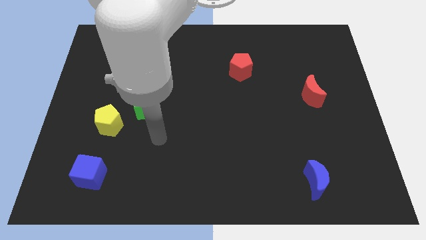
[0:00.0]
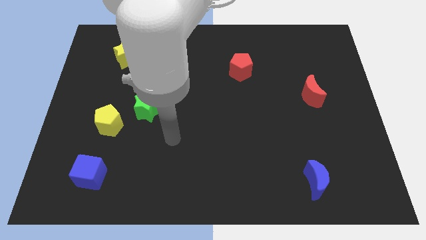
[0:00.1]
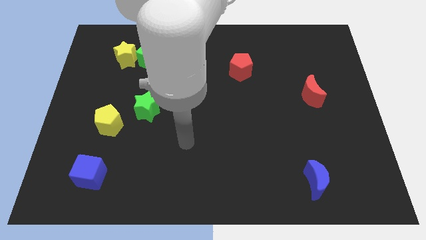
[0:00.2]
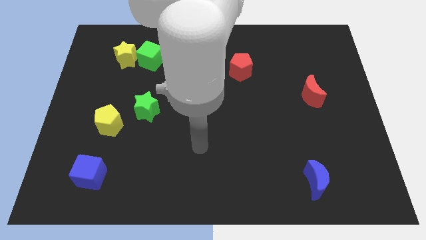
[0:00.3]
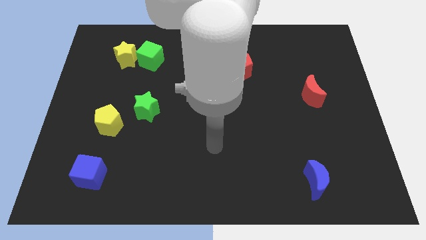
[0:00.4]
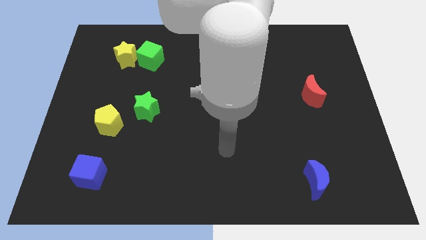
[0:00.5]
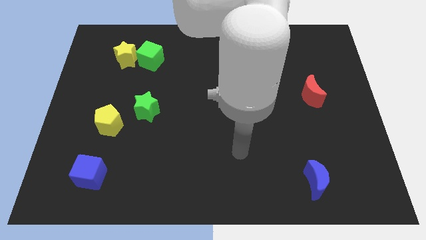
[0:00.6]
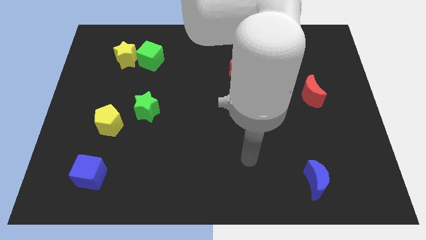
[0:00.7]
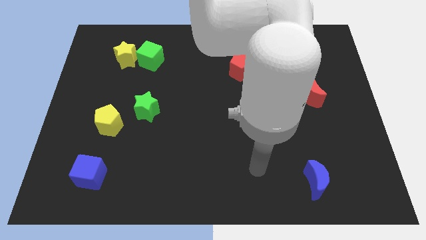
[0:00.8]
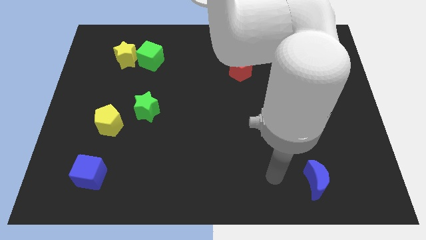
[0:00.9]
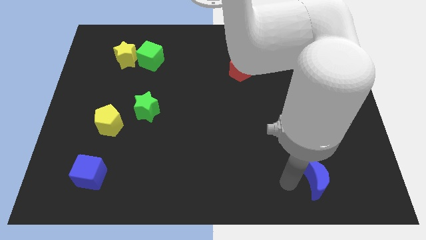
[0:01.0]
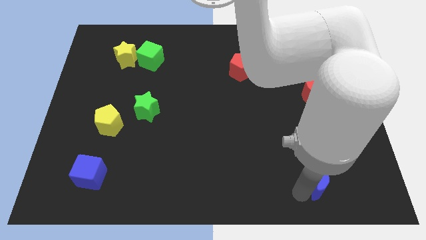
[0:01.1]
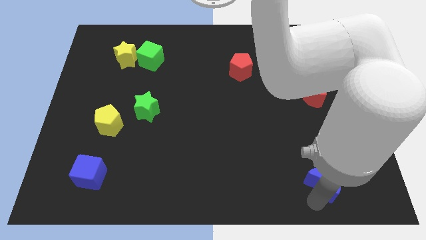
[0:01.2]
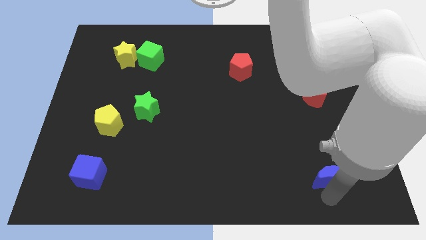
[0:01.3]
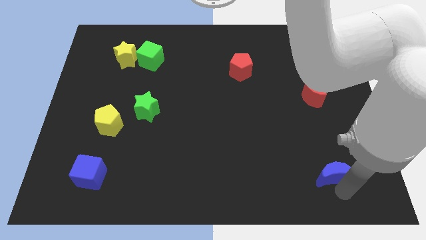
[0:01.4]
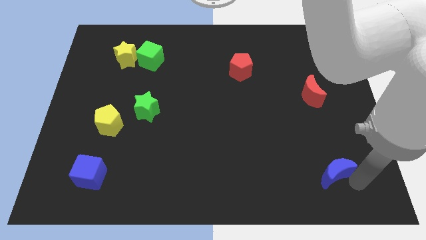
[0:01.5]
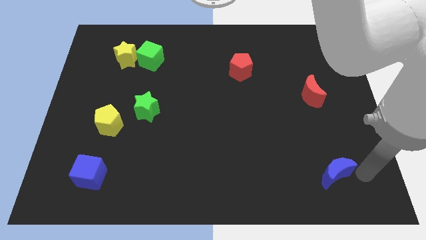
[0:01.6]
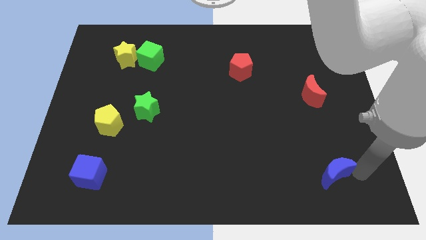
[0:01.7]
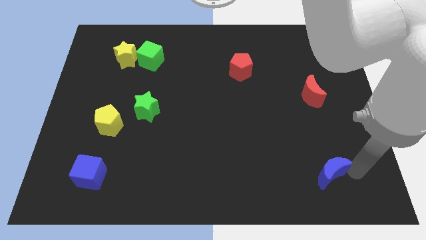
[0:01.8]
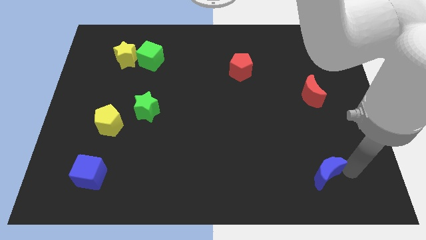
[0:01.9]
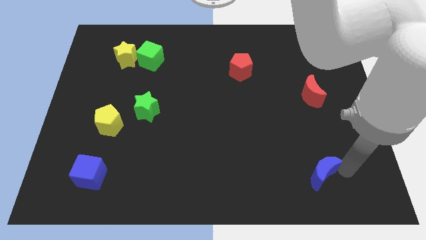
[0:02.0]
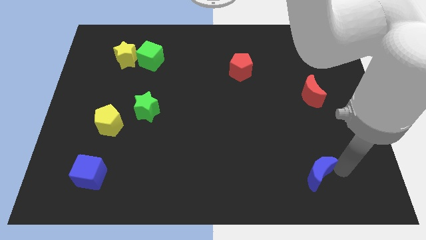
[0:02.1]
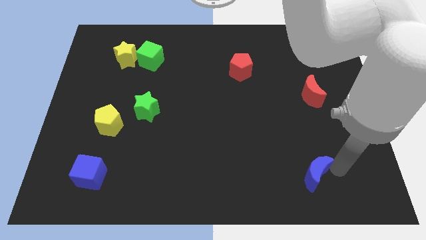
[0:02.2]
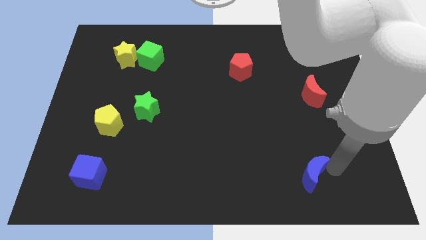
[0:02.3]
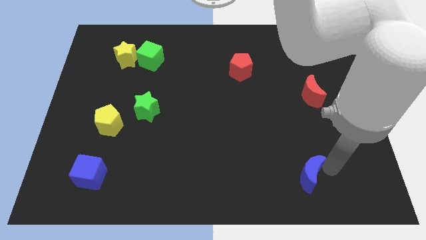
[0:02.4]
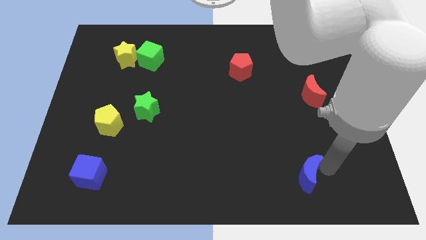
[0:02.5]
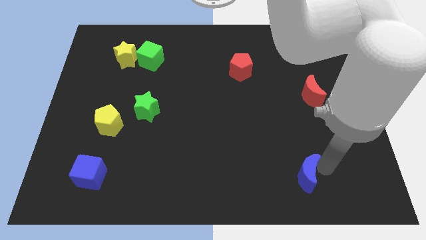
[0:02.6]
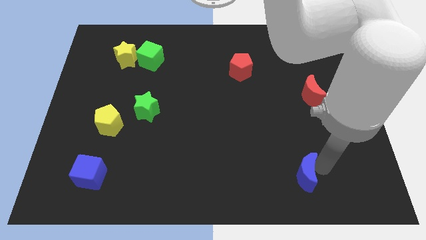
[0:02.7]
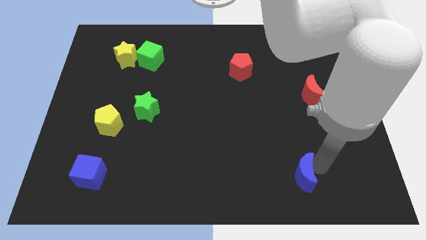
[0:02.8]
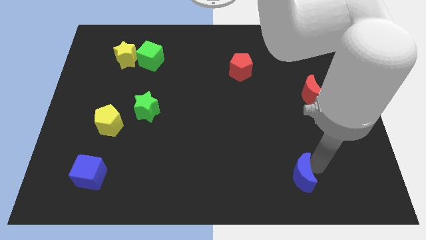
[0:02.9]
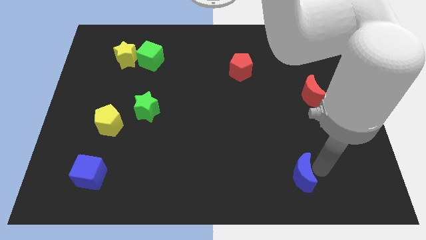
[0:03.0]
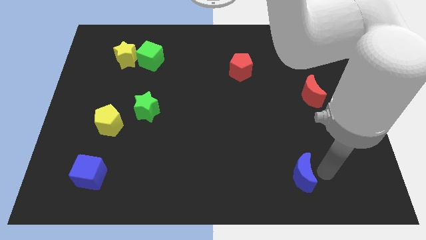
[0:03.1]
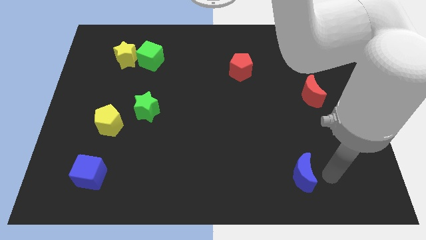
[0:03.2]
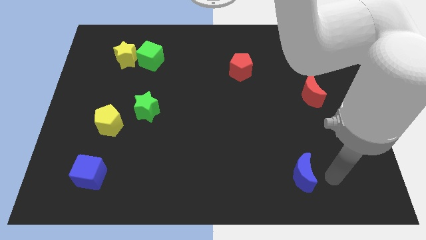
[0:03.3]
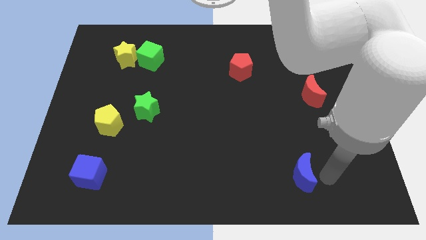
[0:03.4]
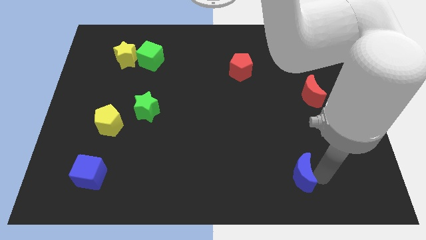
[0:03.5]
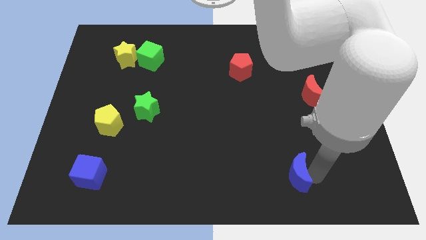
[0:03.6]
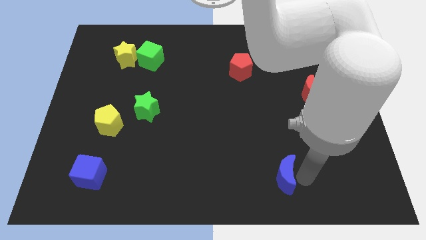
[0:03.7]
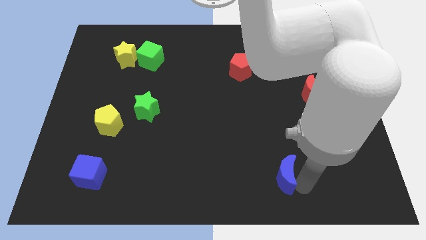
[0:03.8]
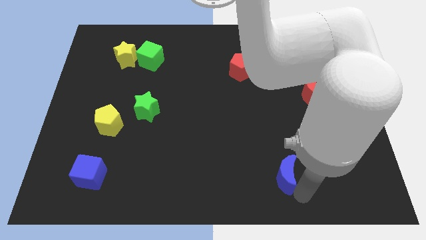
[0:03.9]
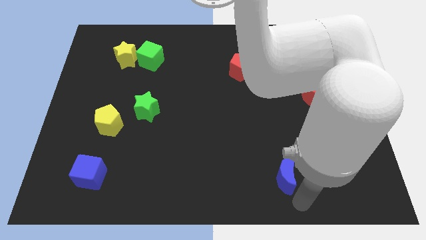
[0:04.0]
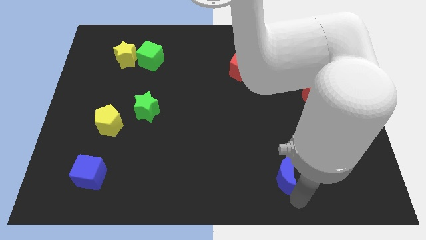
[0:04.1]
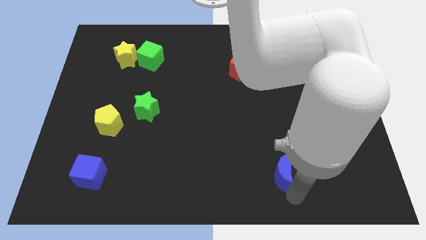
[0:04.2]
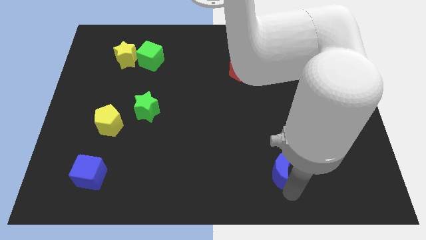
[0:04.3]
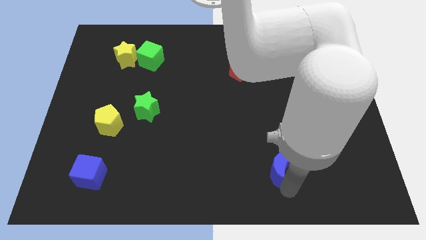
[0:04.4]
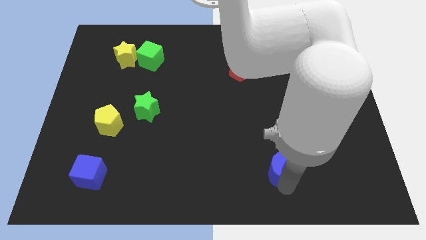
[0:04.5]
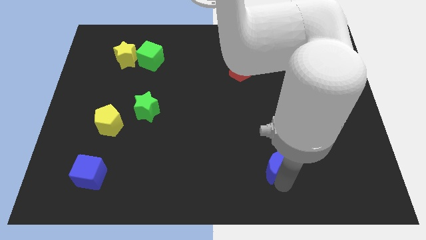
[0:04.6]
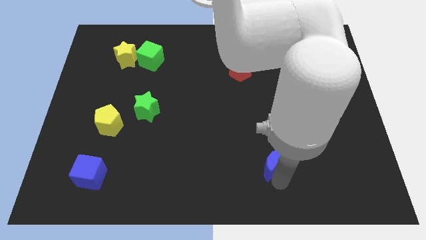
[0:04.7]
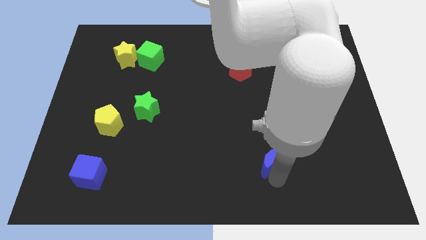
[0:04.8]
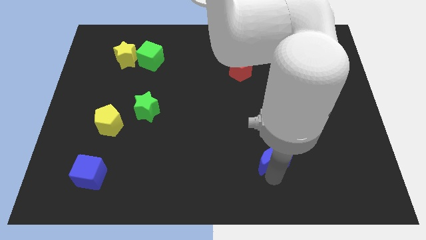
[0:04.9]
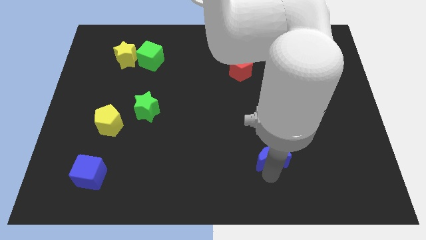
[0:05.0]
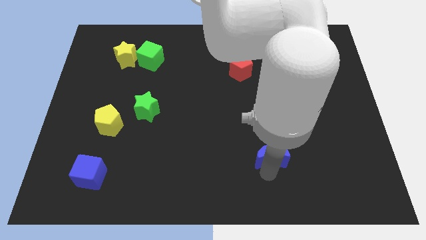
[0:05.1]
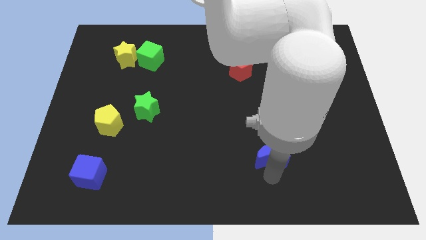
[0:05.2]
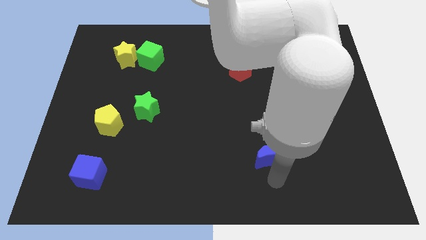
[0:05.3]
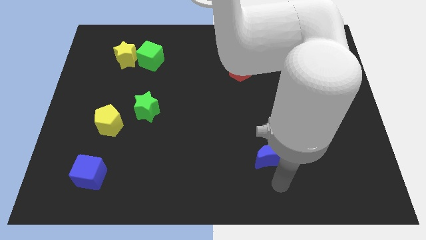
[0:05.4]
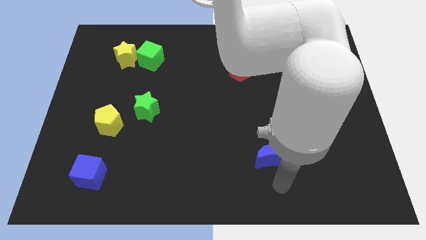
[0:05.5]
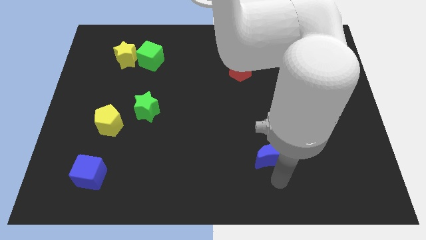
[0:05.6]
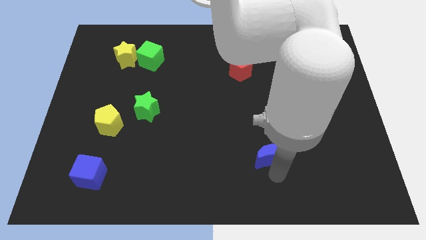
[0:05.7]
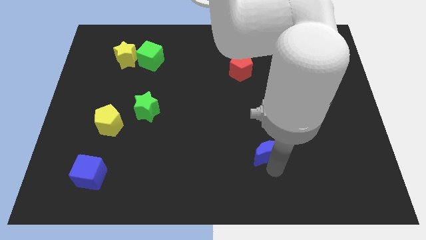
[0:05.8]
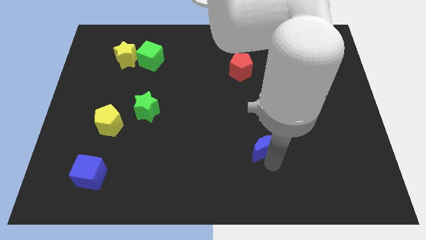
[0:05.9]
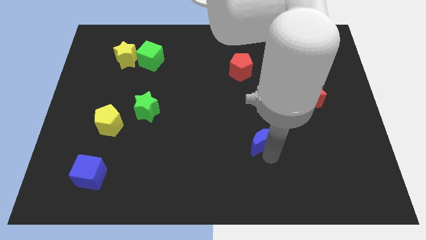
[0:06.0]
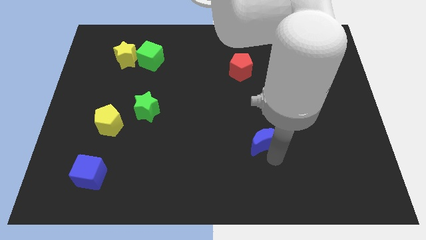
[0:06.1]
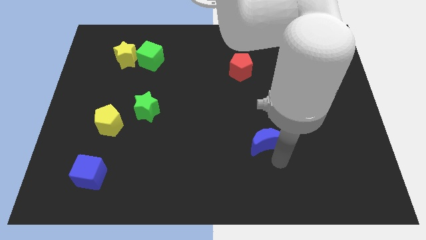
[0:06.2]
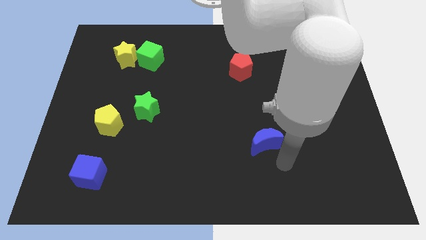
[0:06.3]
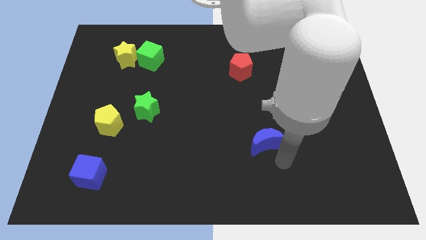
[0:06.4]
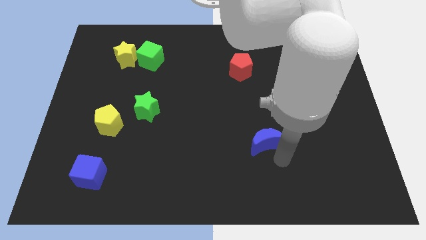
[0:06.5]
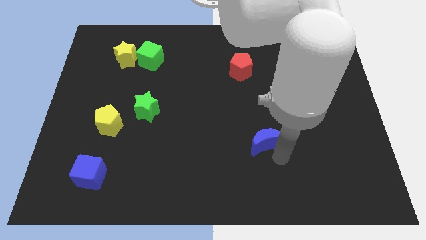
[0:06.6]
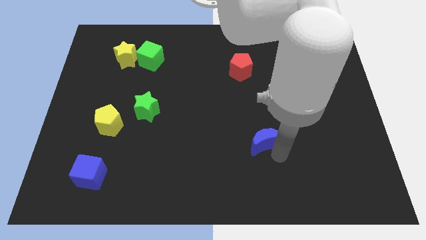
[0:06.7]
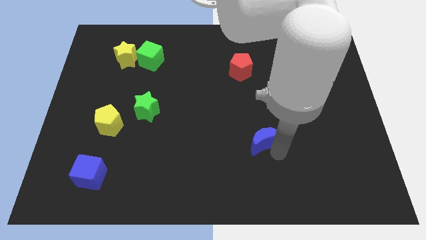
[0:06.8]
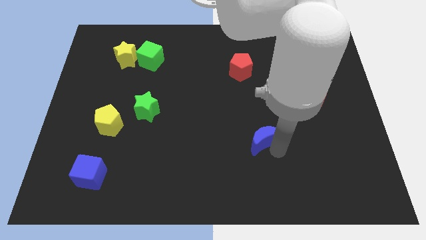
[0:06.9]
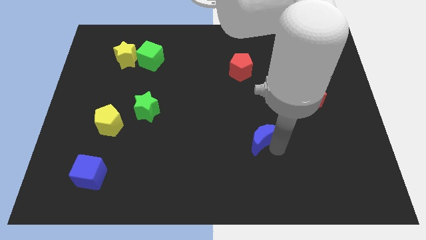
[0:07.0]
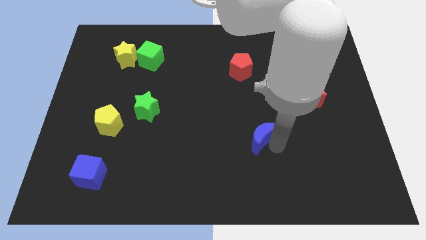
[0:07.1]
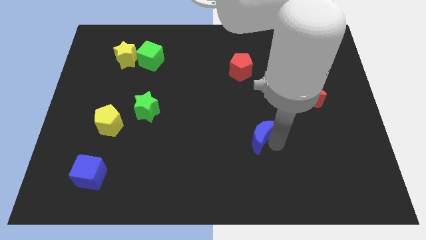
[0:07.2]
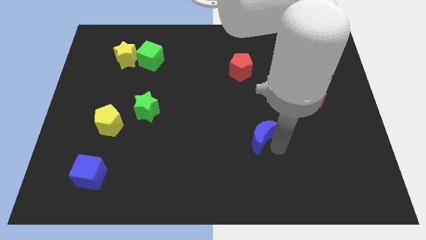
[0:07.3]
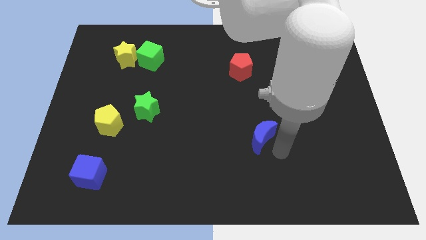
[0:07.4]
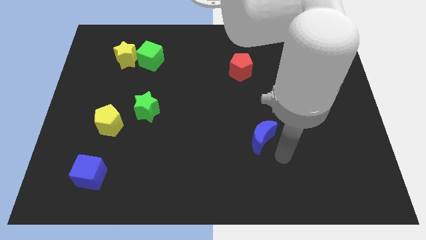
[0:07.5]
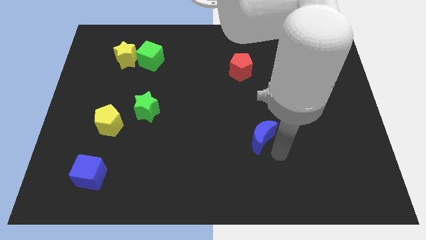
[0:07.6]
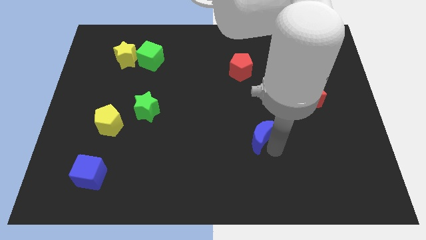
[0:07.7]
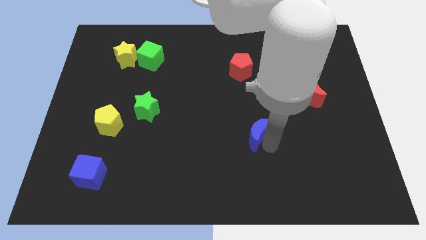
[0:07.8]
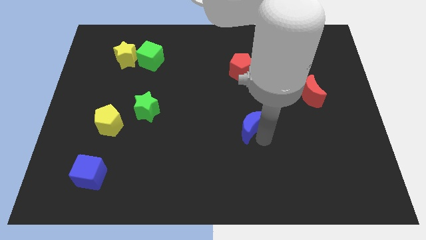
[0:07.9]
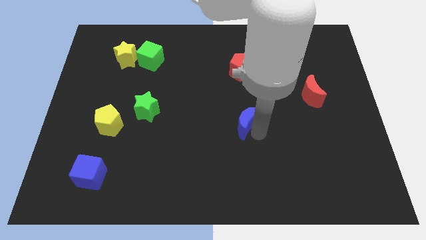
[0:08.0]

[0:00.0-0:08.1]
push the blue moon diagonally upwards and to the left
